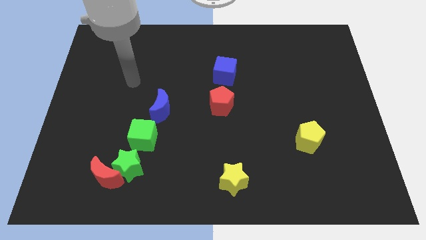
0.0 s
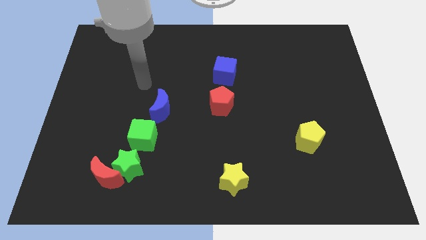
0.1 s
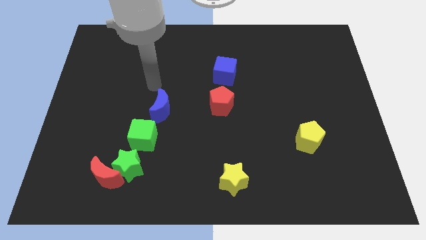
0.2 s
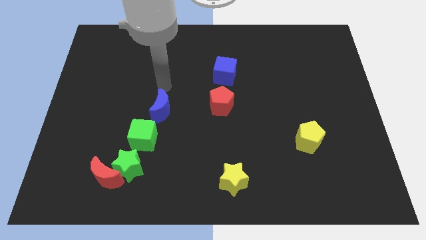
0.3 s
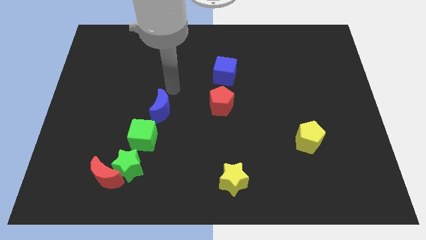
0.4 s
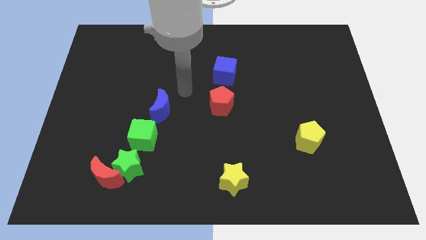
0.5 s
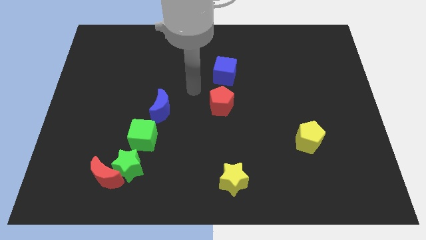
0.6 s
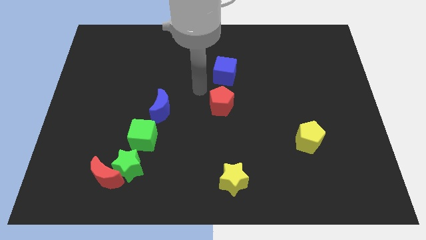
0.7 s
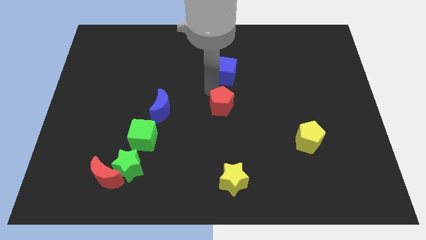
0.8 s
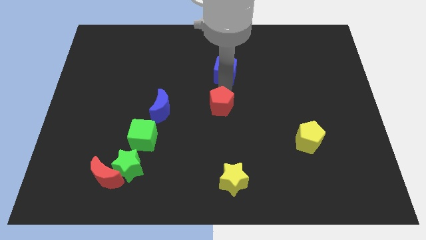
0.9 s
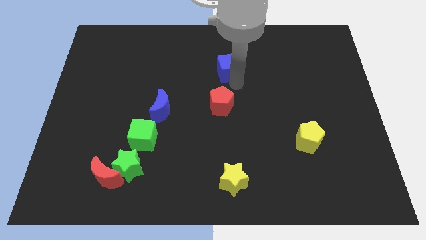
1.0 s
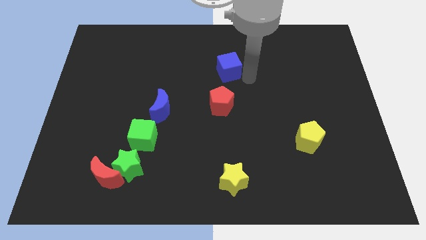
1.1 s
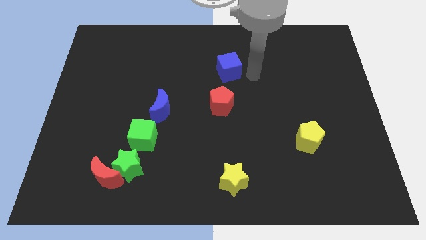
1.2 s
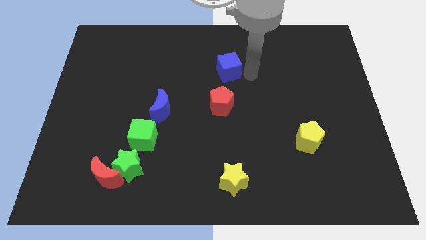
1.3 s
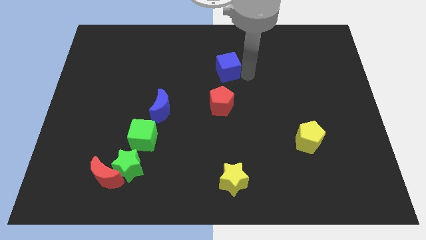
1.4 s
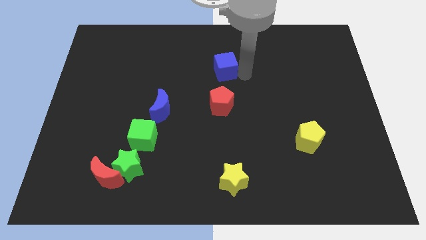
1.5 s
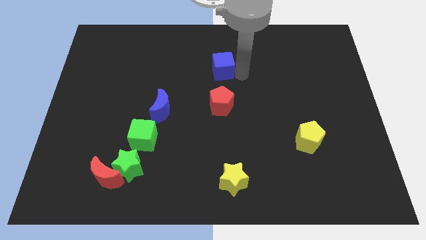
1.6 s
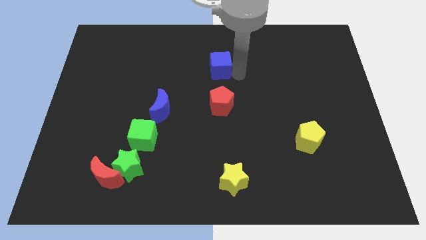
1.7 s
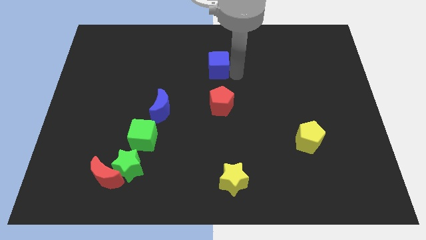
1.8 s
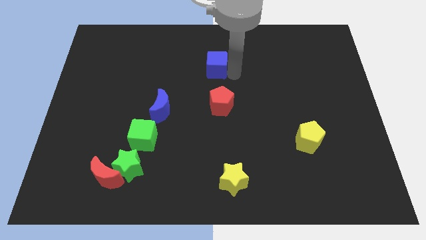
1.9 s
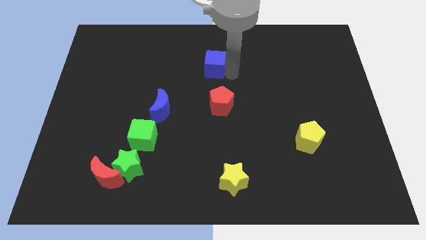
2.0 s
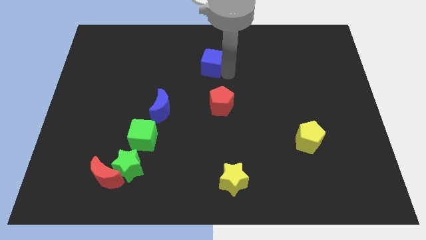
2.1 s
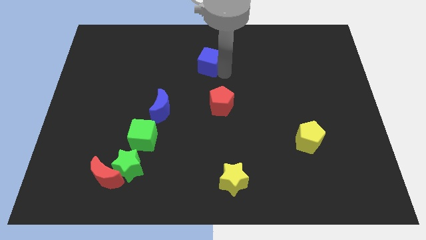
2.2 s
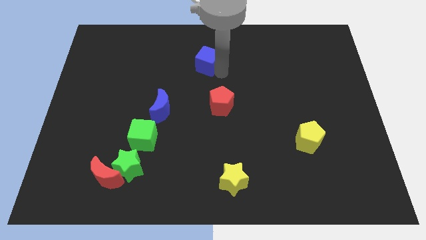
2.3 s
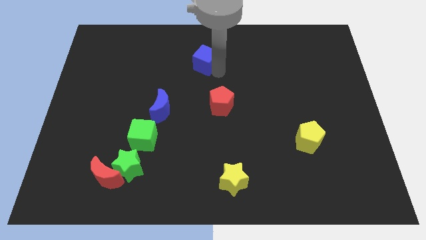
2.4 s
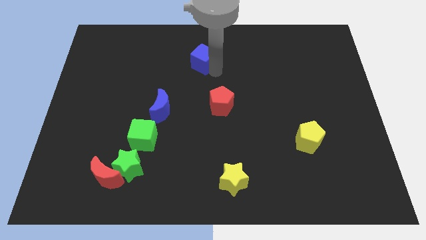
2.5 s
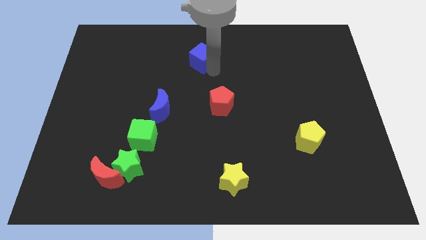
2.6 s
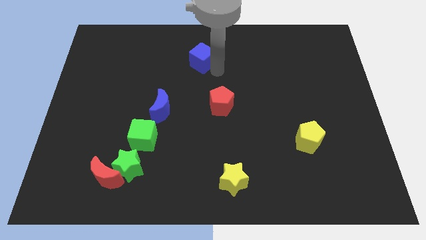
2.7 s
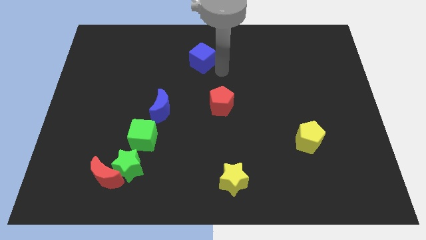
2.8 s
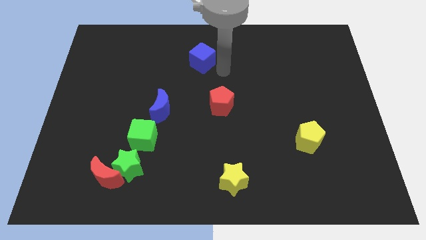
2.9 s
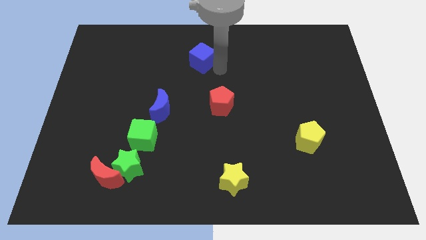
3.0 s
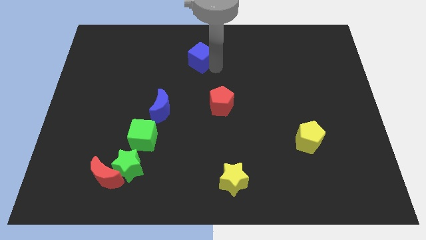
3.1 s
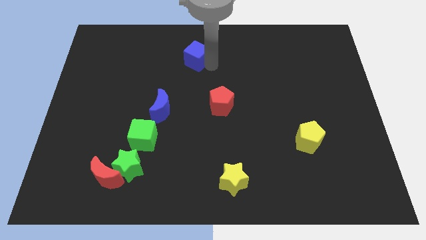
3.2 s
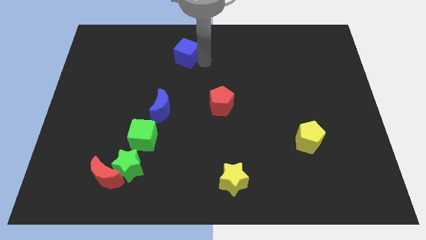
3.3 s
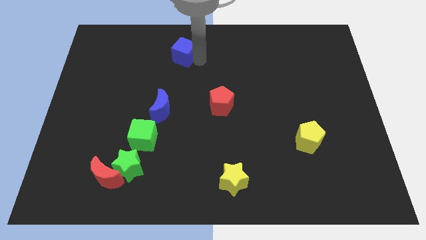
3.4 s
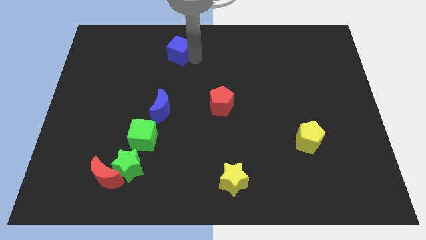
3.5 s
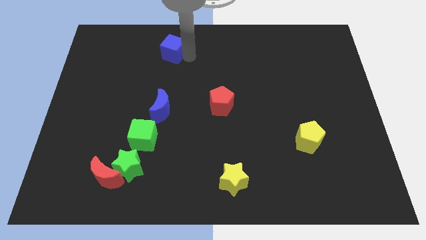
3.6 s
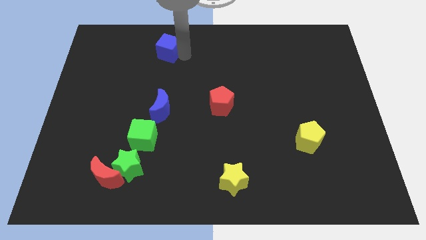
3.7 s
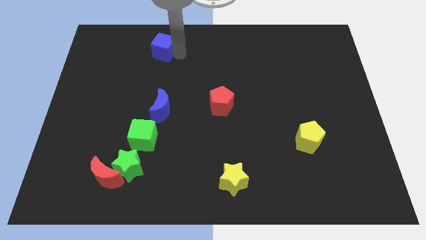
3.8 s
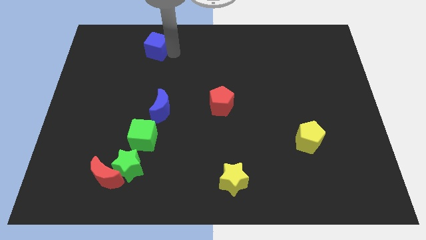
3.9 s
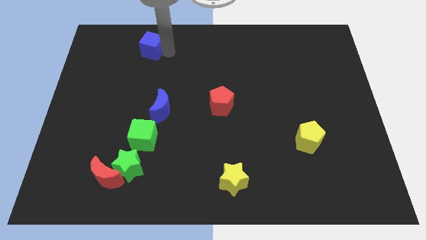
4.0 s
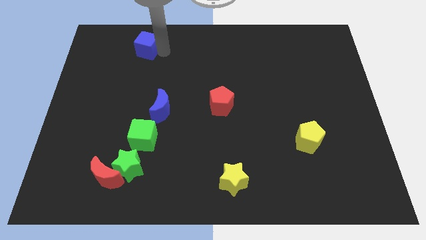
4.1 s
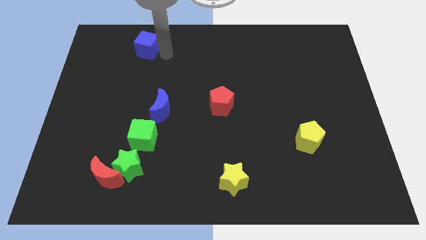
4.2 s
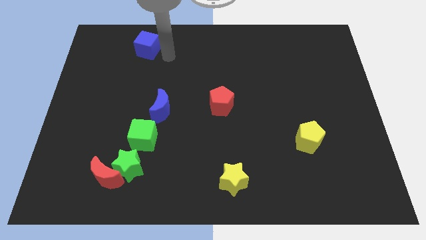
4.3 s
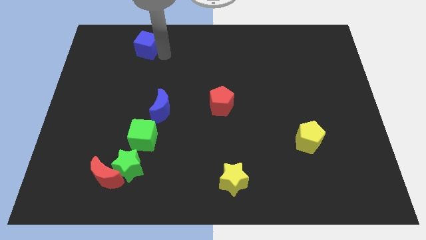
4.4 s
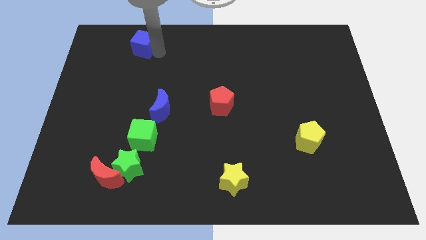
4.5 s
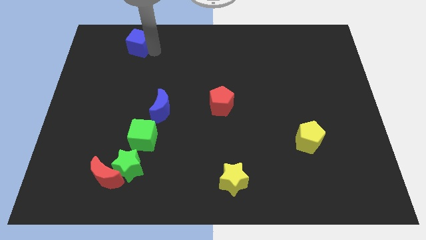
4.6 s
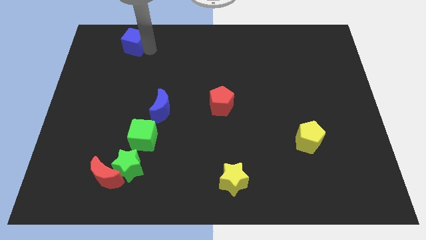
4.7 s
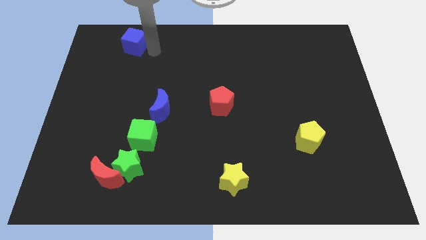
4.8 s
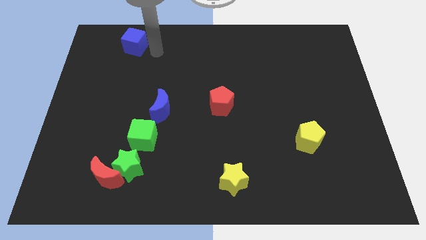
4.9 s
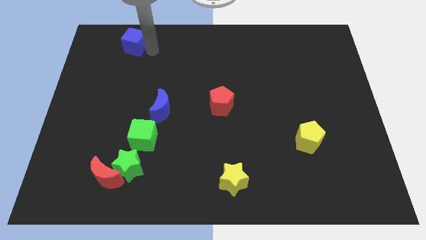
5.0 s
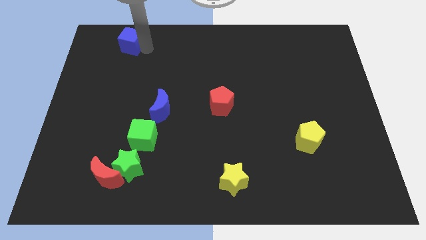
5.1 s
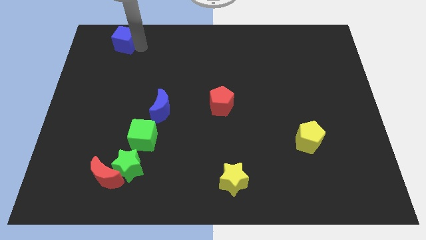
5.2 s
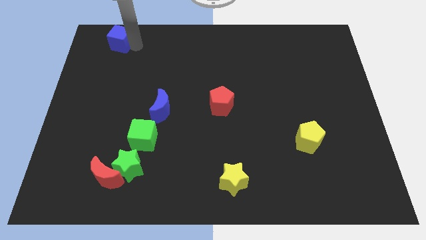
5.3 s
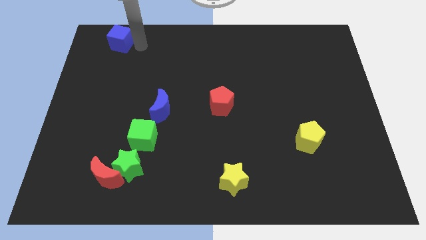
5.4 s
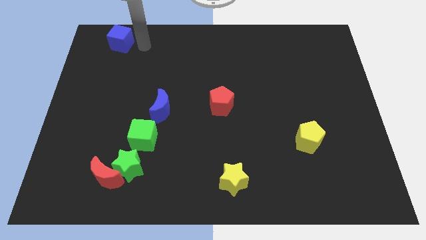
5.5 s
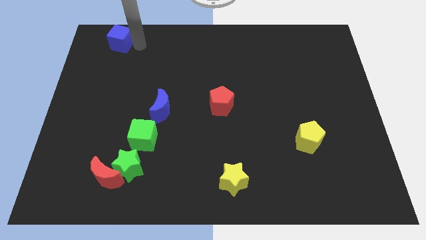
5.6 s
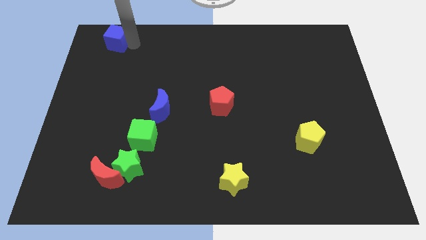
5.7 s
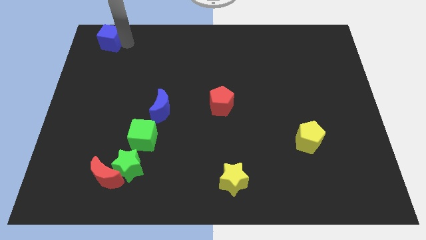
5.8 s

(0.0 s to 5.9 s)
move the blue cube to the upper left corner

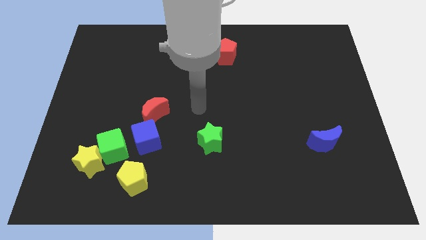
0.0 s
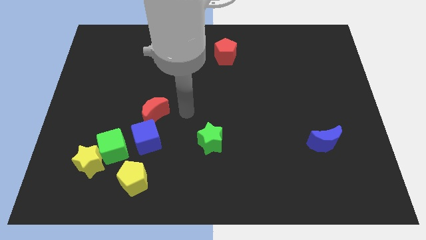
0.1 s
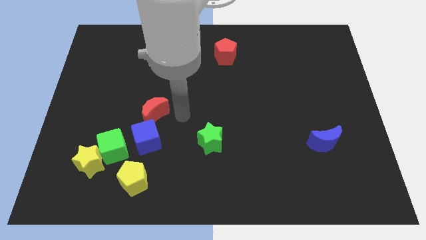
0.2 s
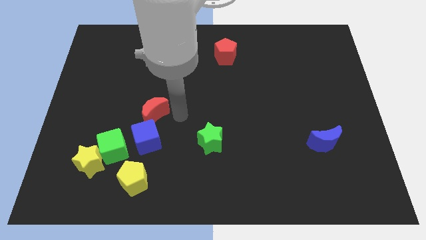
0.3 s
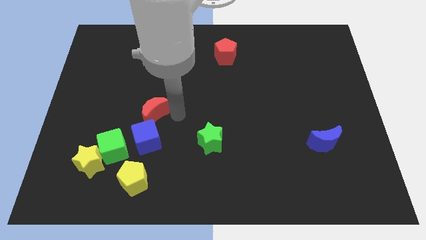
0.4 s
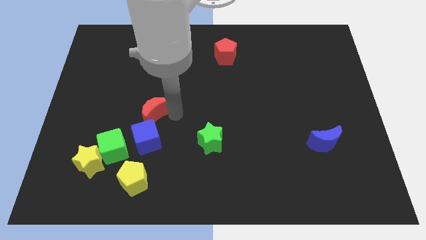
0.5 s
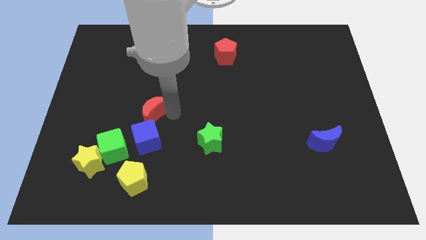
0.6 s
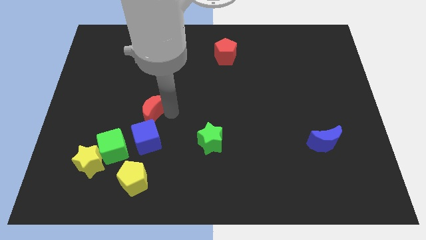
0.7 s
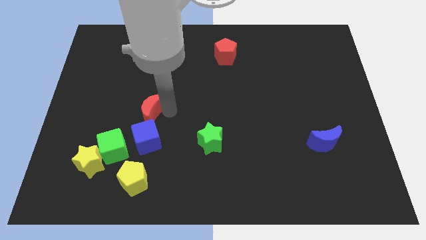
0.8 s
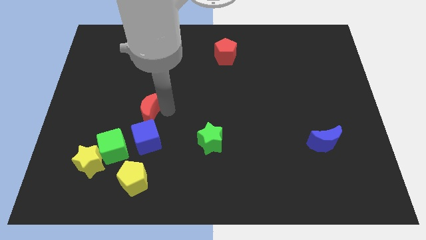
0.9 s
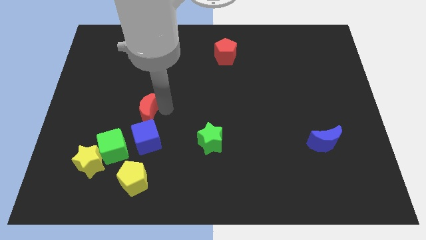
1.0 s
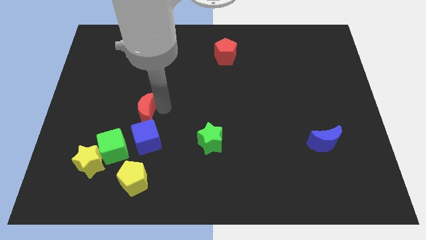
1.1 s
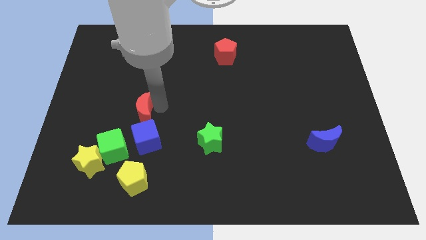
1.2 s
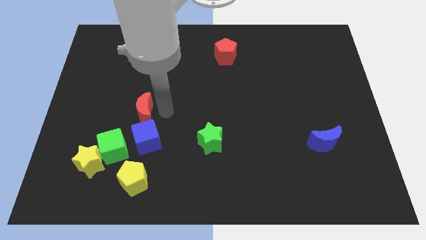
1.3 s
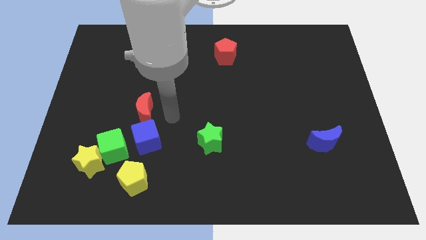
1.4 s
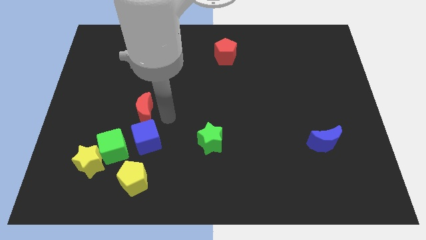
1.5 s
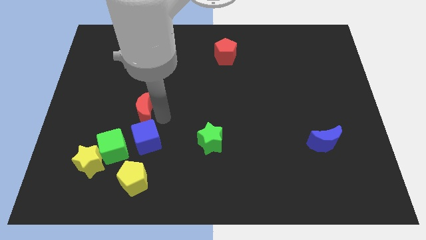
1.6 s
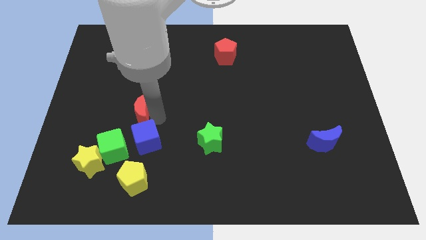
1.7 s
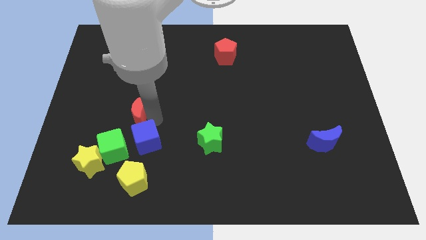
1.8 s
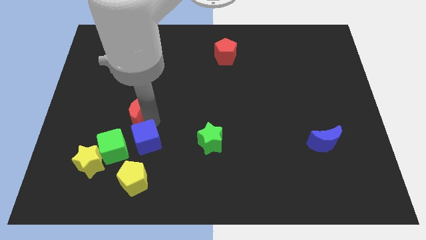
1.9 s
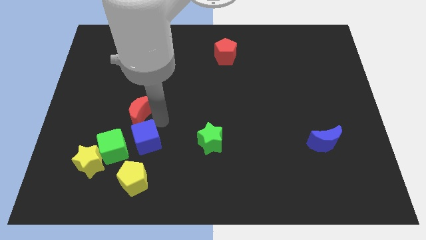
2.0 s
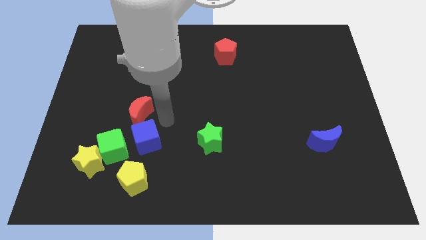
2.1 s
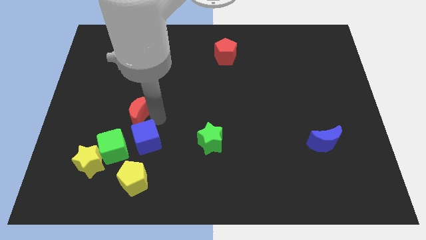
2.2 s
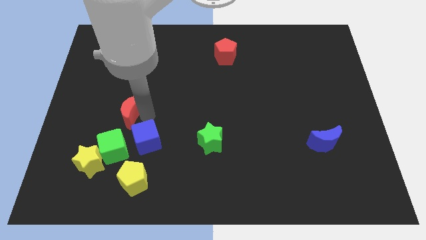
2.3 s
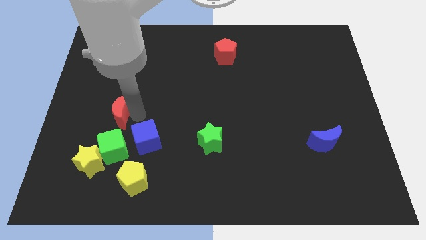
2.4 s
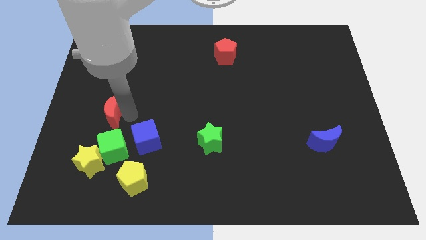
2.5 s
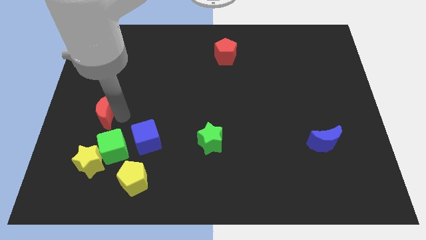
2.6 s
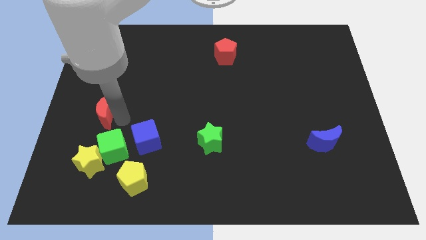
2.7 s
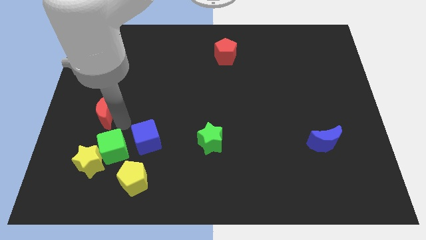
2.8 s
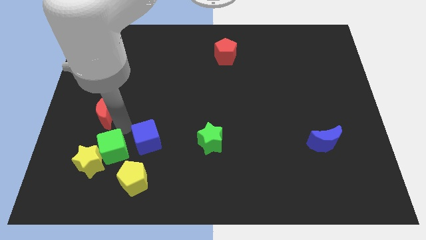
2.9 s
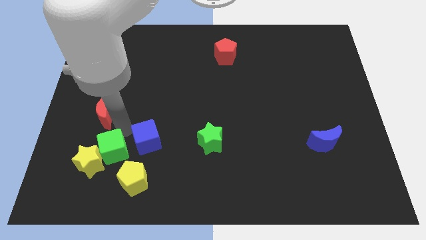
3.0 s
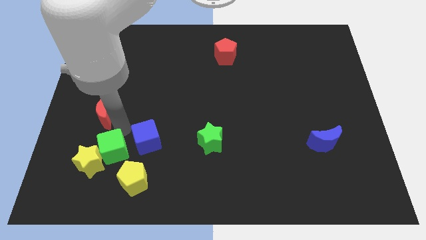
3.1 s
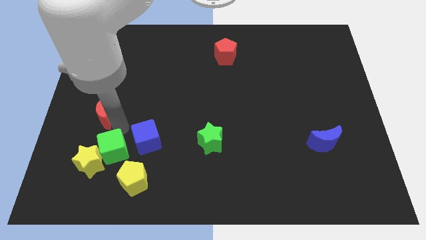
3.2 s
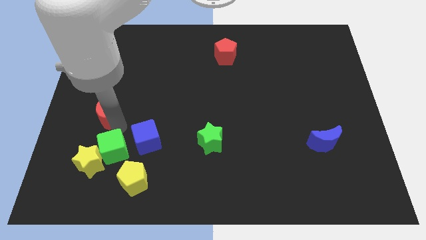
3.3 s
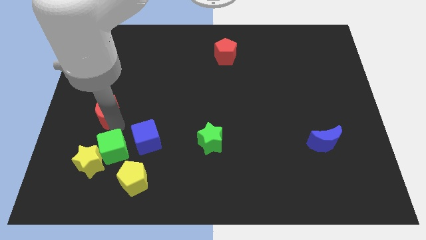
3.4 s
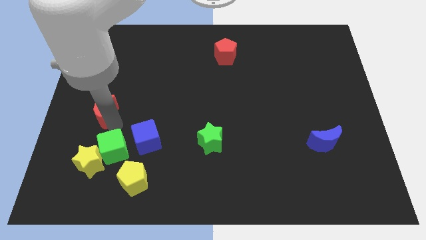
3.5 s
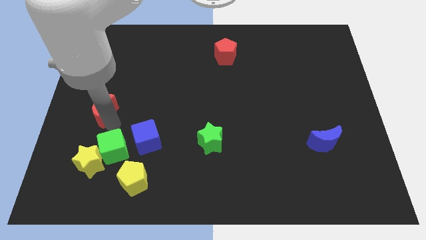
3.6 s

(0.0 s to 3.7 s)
slide the red moon to the left side of the board
